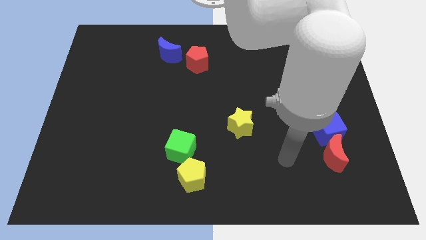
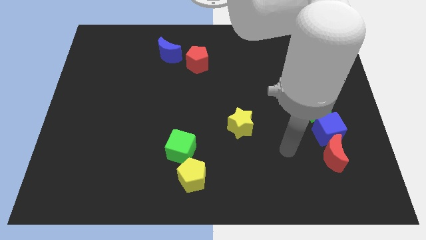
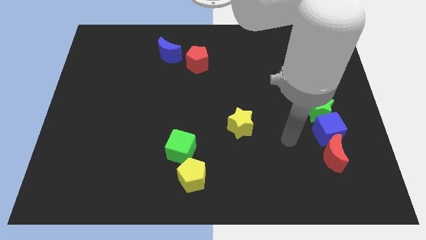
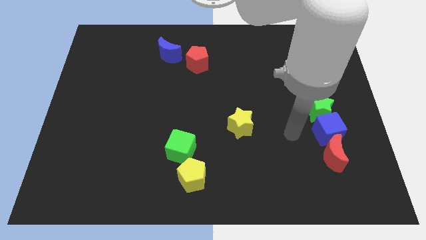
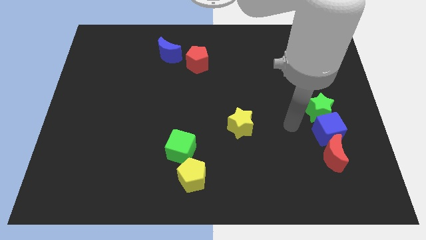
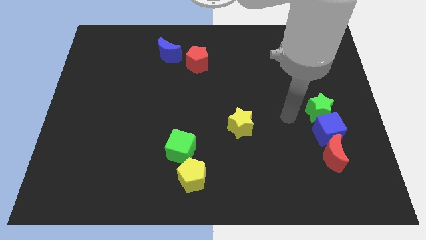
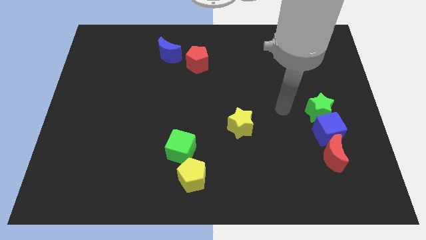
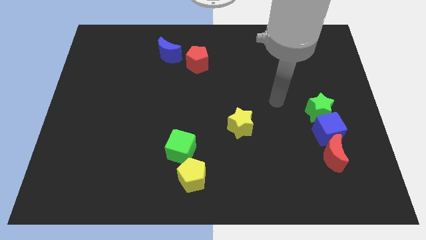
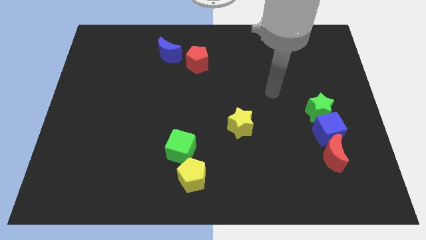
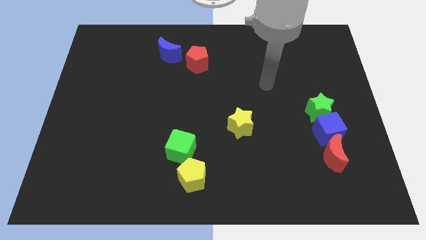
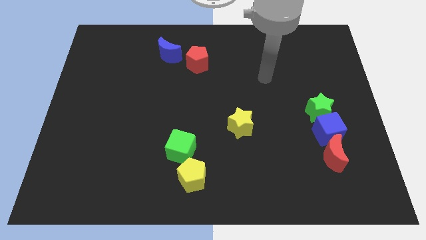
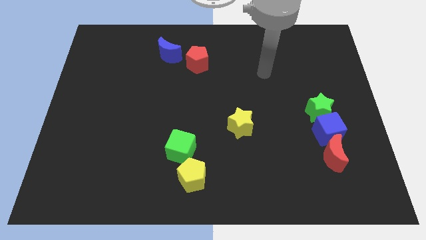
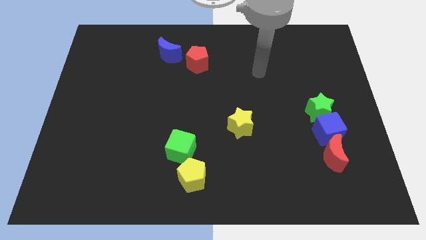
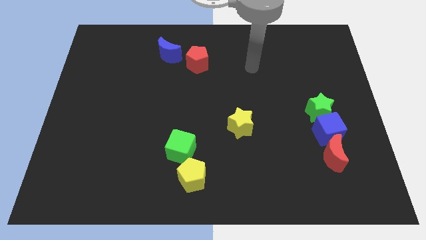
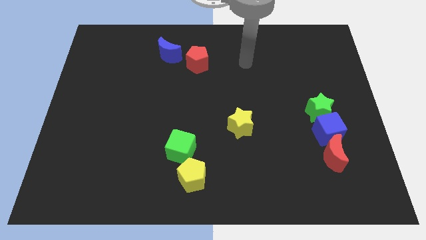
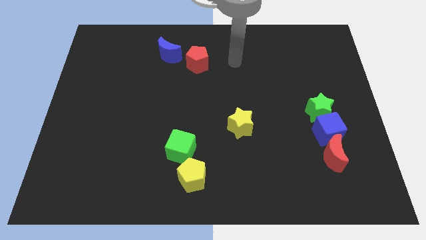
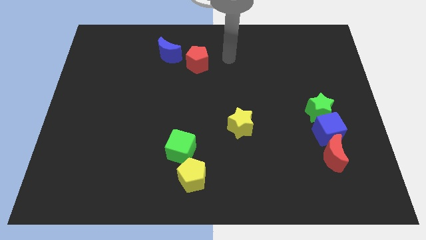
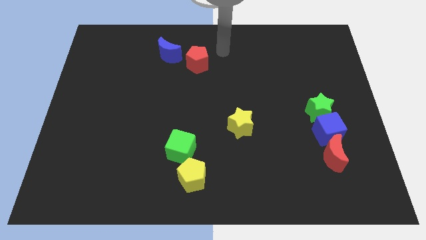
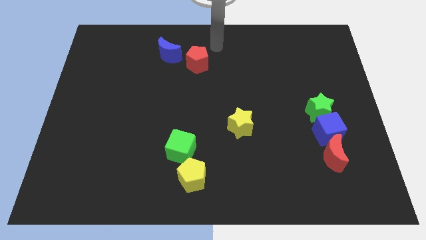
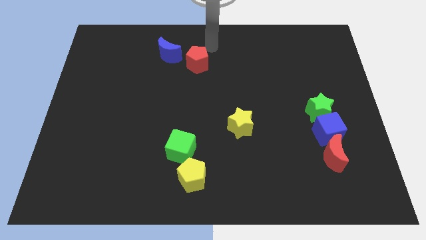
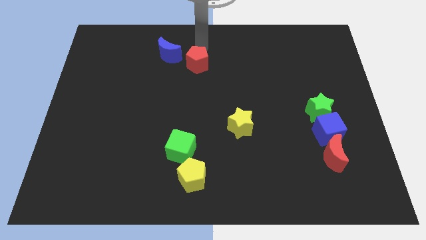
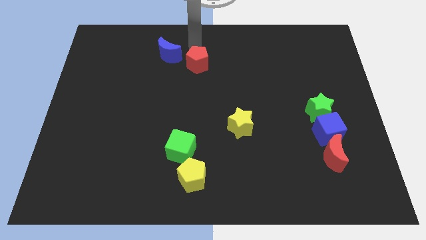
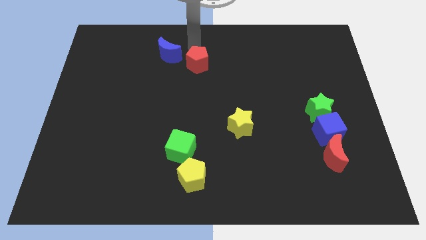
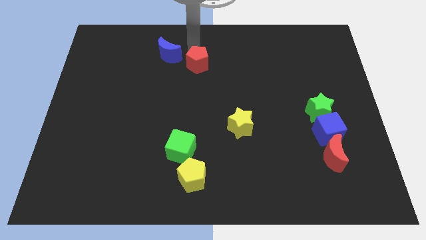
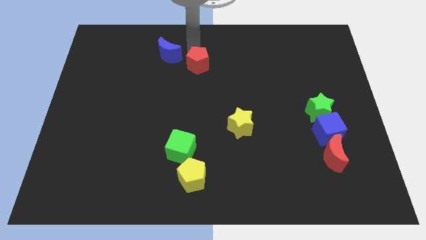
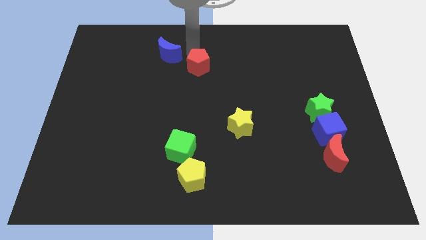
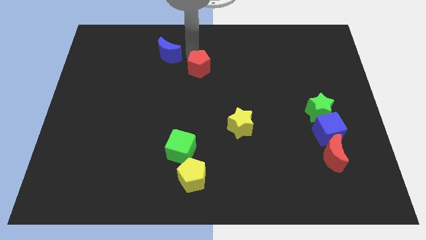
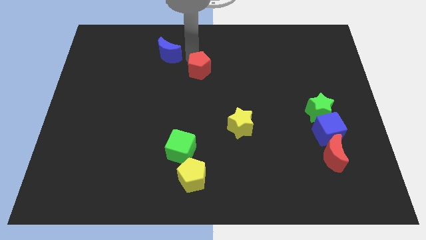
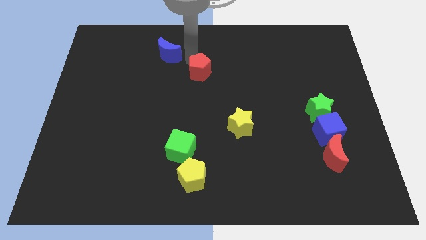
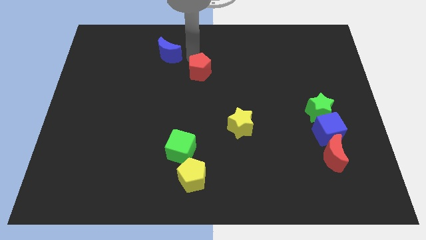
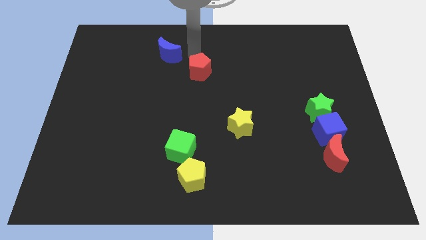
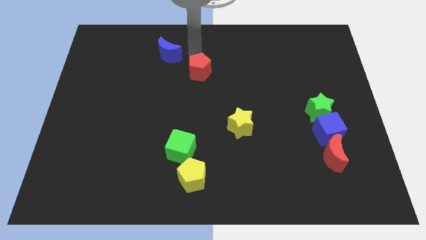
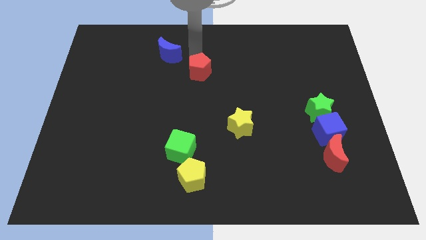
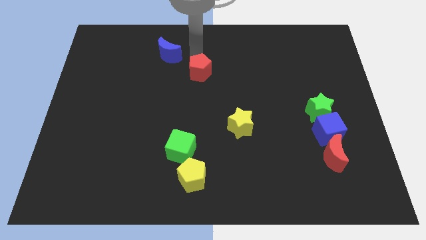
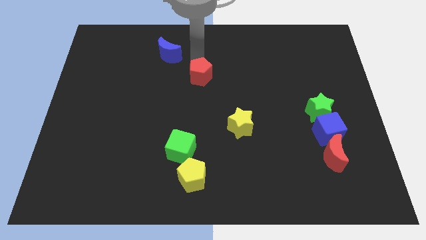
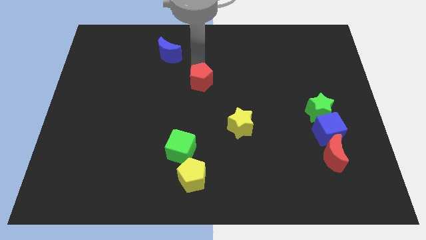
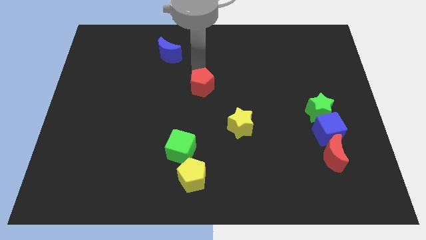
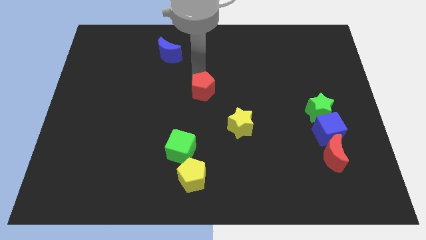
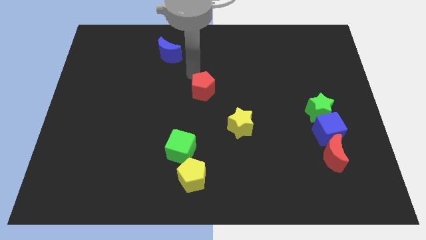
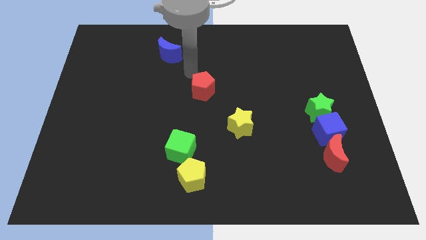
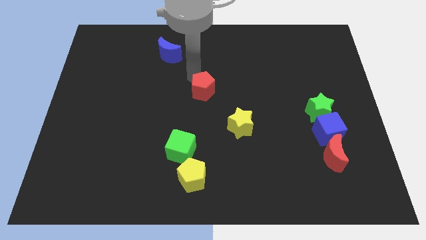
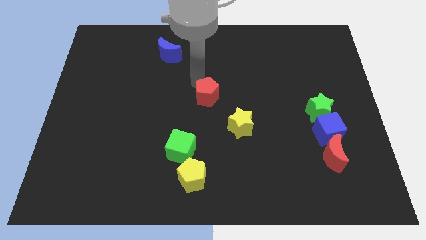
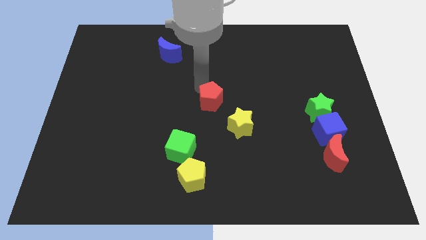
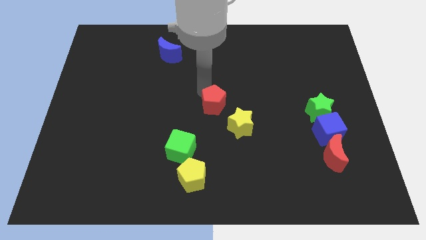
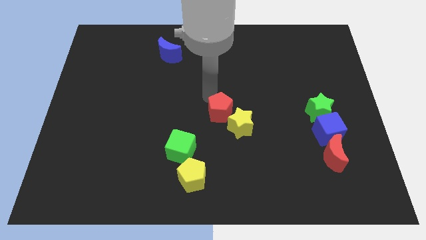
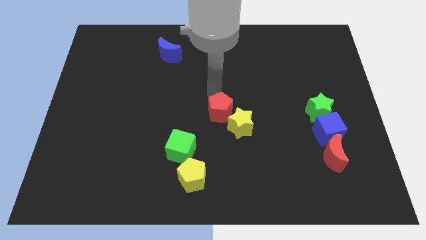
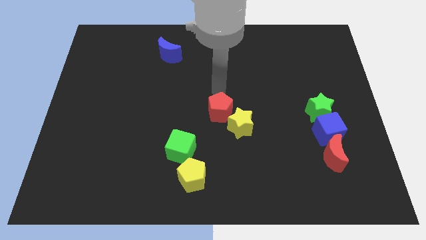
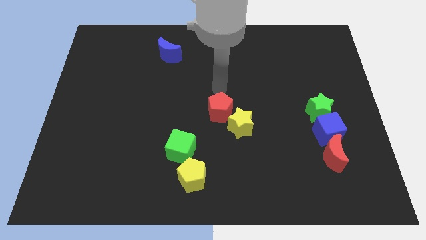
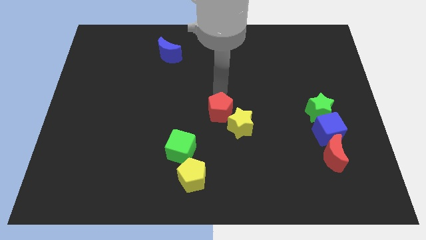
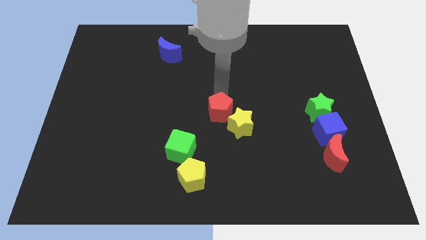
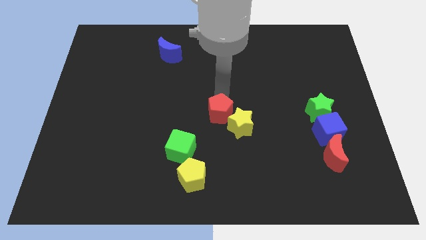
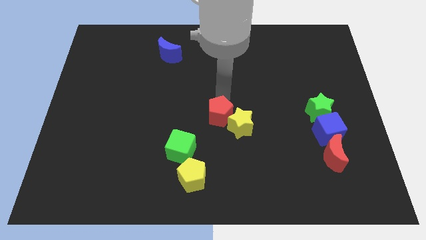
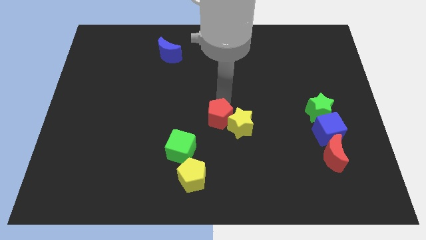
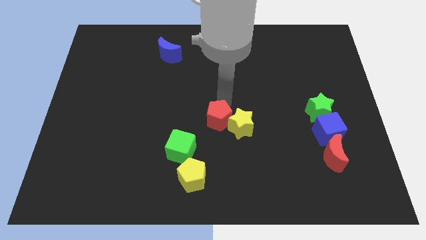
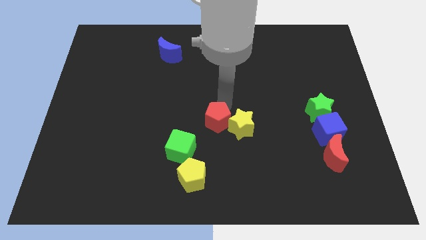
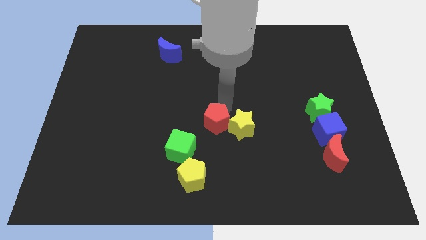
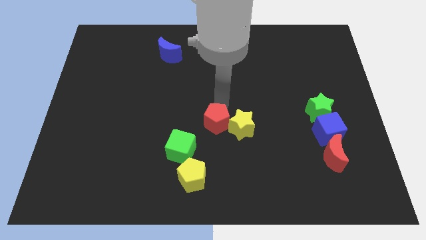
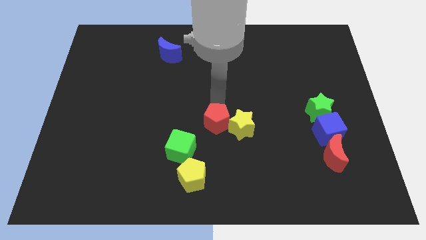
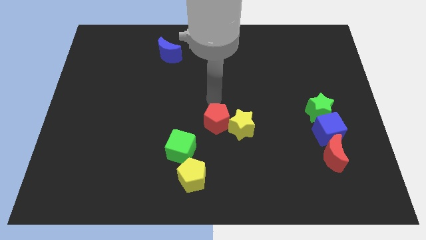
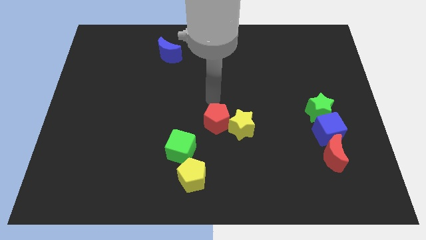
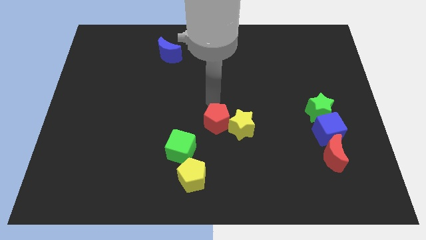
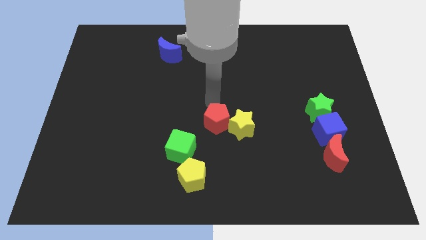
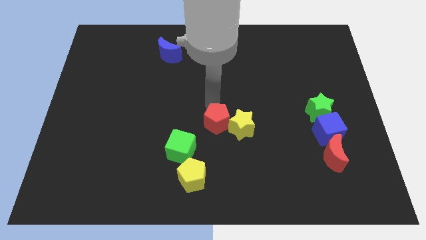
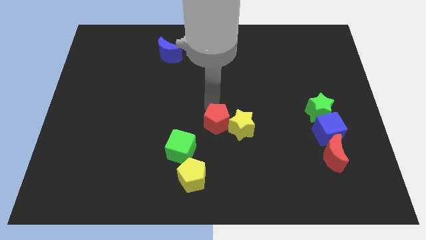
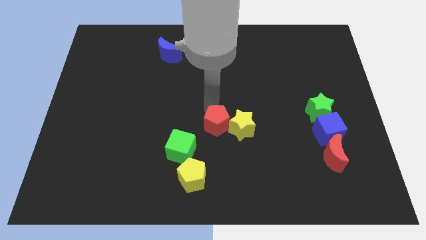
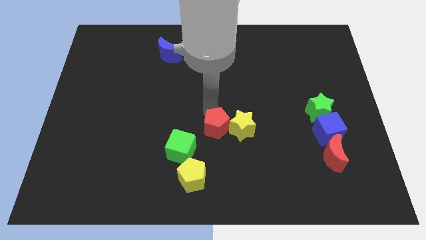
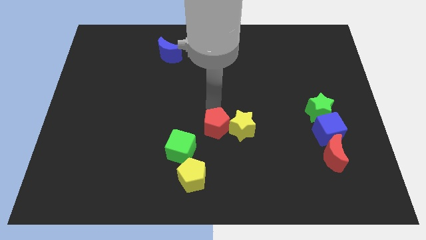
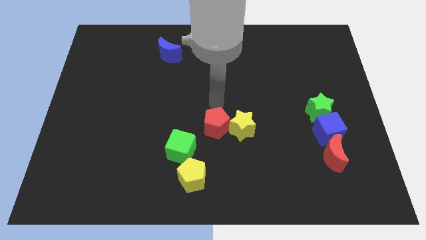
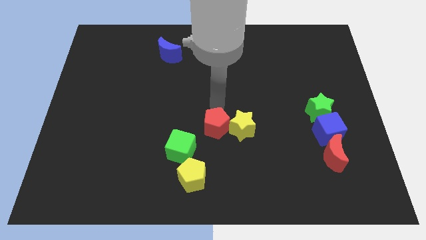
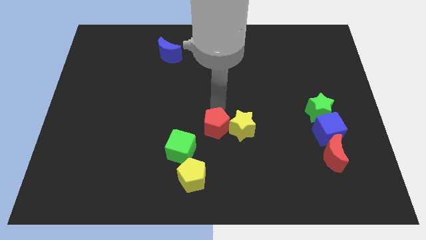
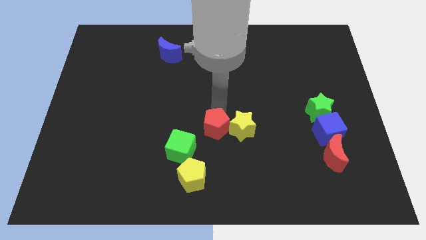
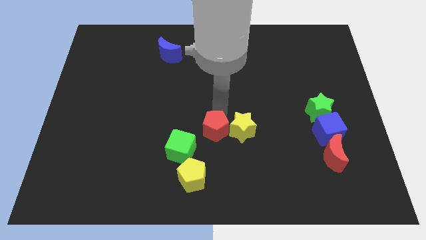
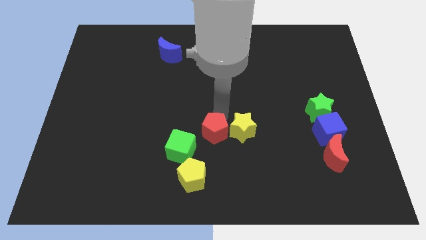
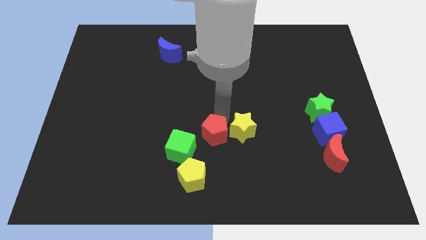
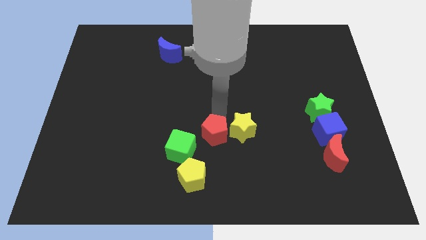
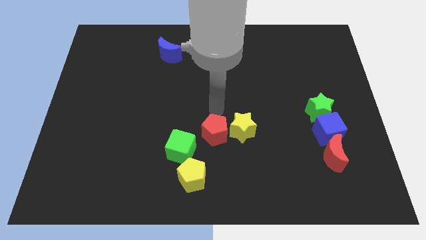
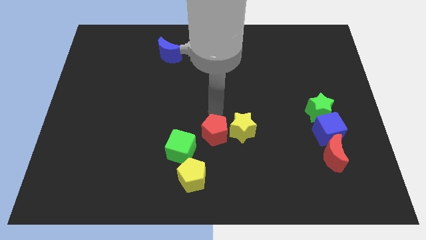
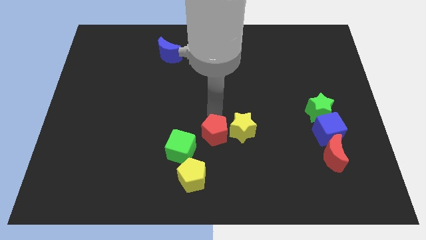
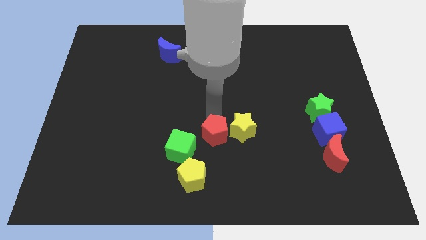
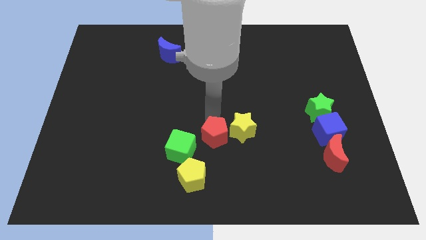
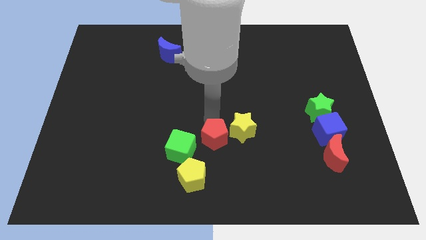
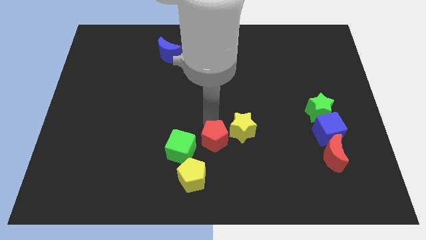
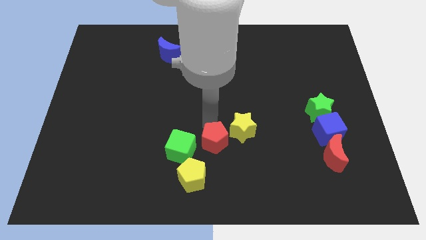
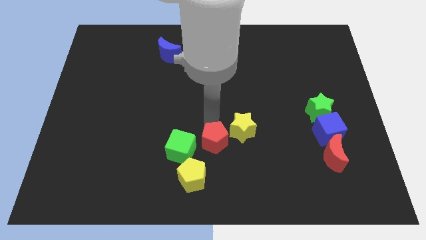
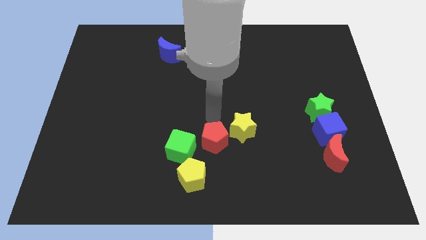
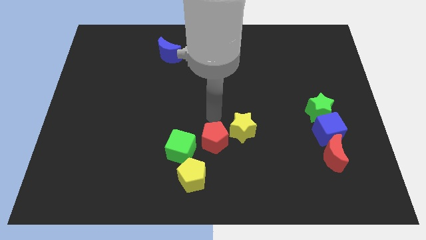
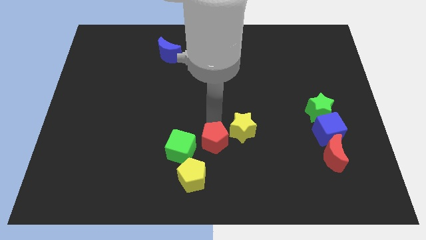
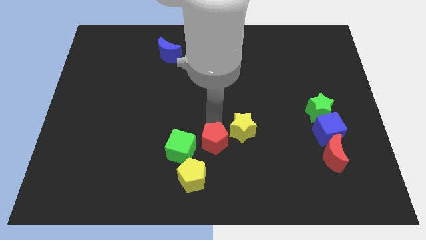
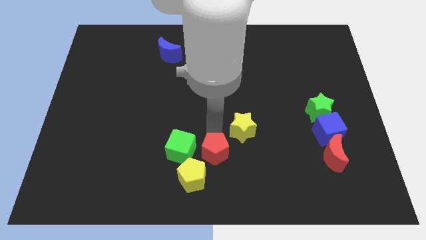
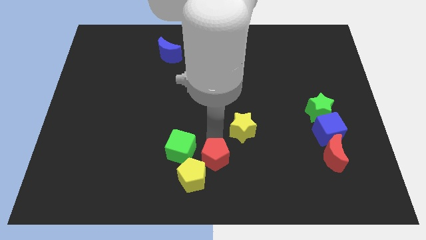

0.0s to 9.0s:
slide the red pentagon to the bottom side
